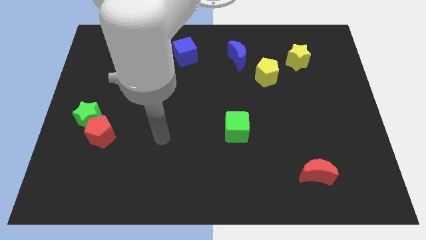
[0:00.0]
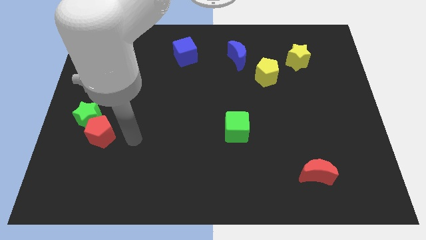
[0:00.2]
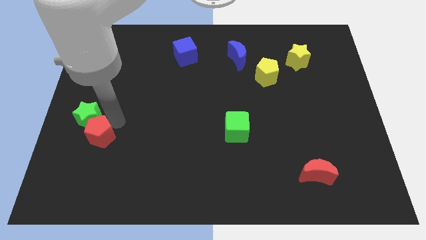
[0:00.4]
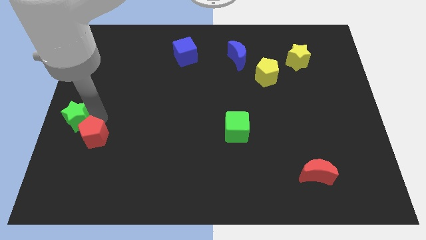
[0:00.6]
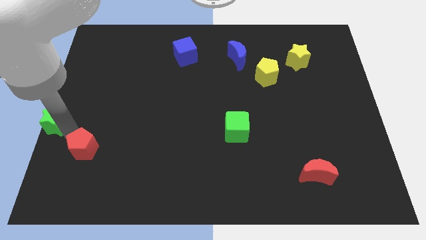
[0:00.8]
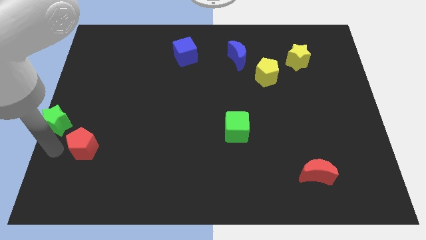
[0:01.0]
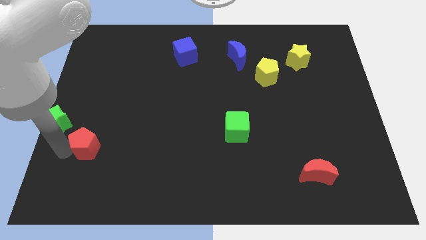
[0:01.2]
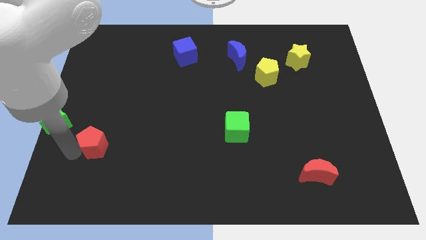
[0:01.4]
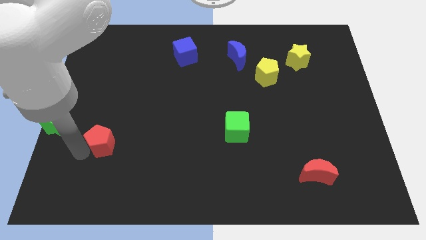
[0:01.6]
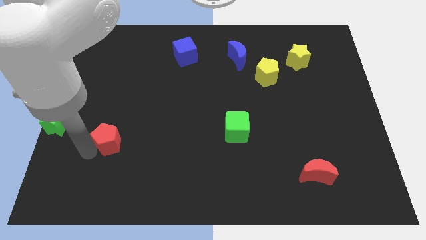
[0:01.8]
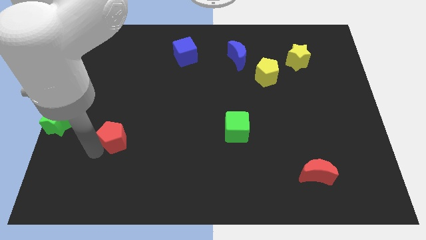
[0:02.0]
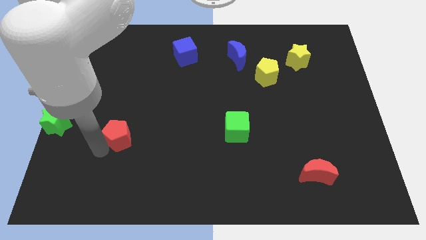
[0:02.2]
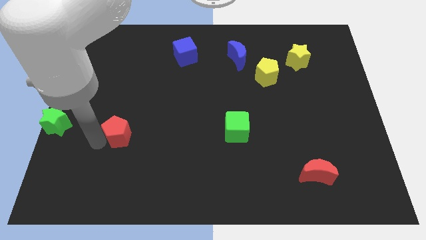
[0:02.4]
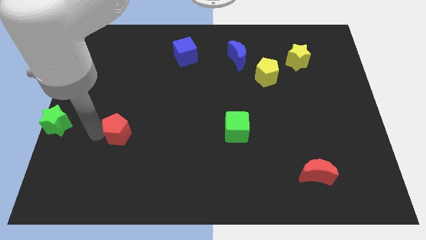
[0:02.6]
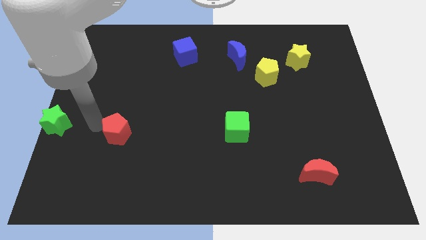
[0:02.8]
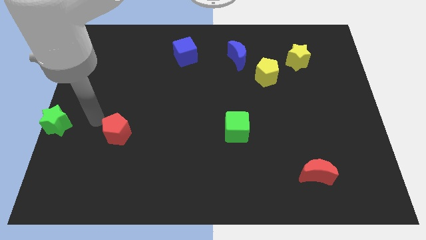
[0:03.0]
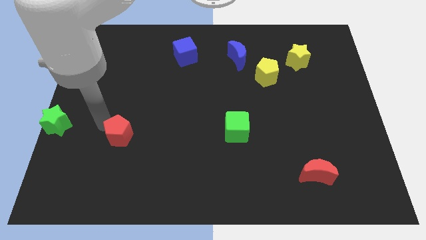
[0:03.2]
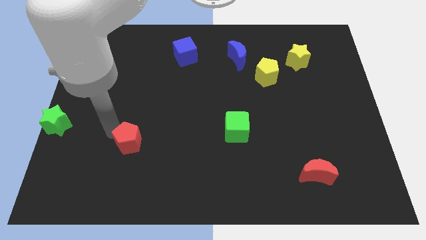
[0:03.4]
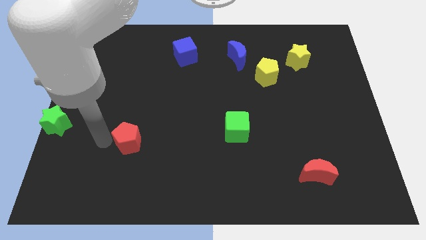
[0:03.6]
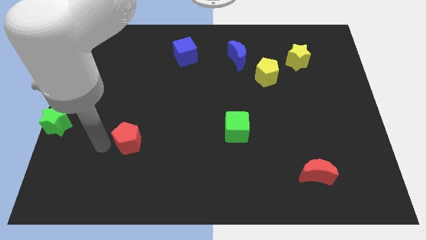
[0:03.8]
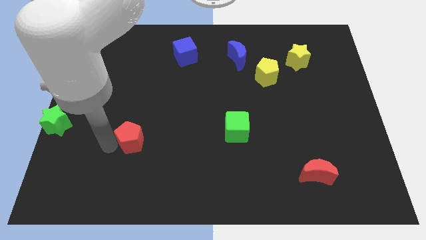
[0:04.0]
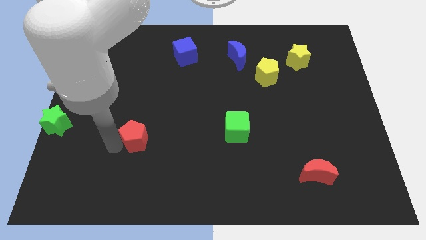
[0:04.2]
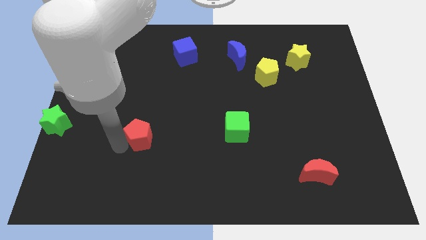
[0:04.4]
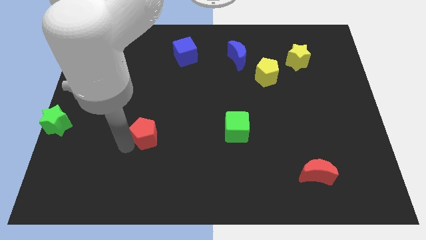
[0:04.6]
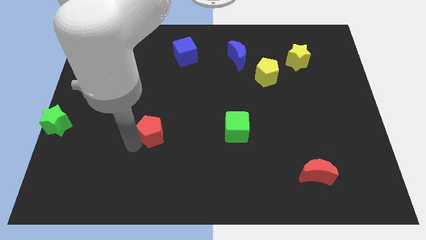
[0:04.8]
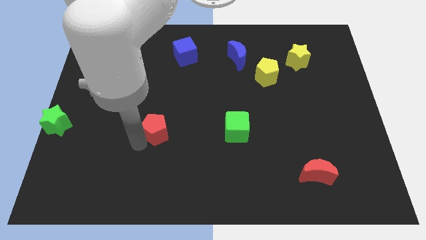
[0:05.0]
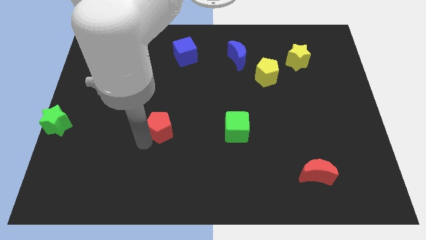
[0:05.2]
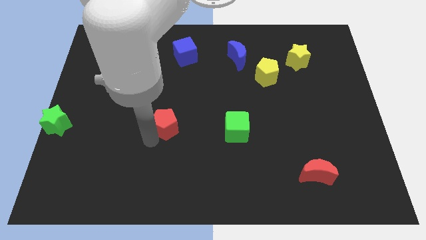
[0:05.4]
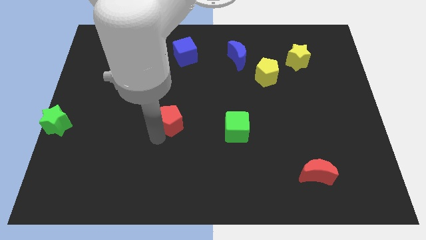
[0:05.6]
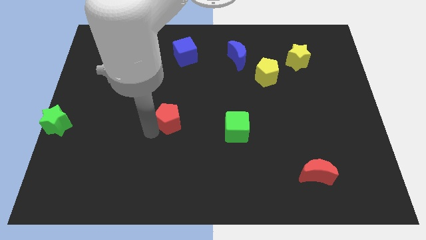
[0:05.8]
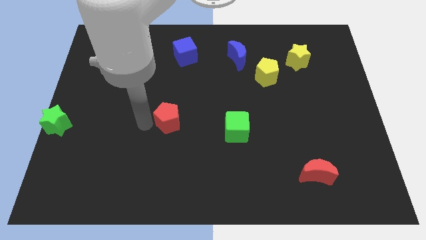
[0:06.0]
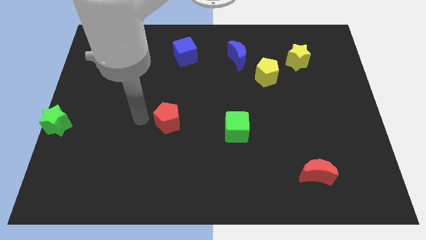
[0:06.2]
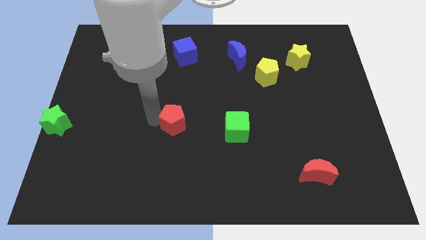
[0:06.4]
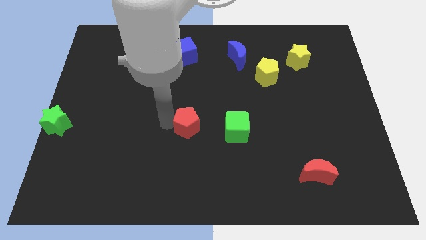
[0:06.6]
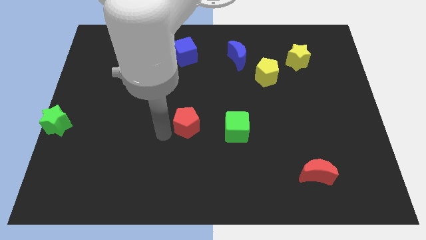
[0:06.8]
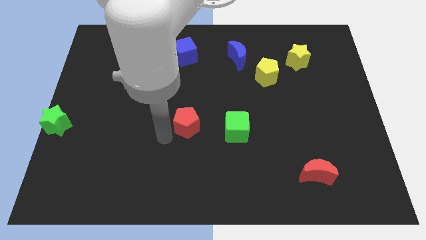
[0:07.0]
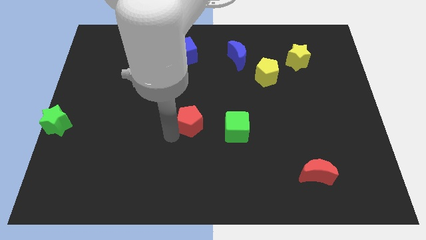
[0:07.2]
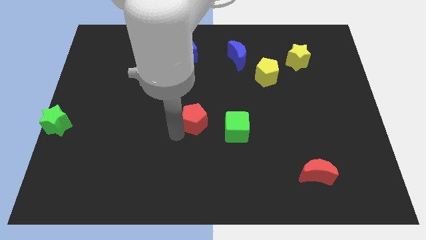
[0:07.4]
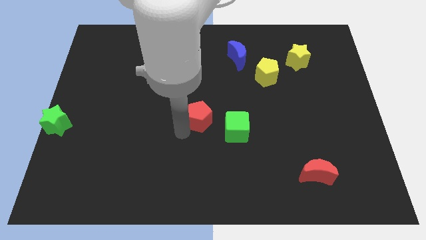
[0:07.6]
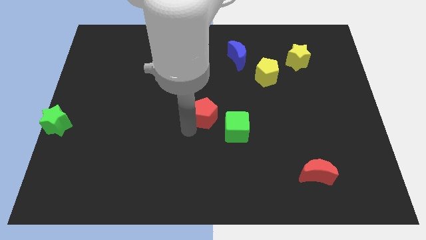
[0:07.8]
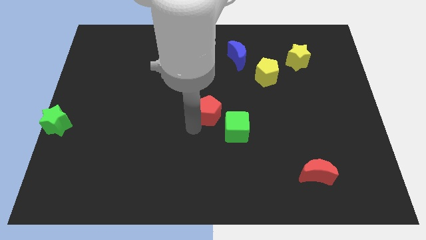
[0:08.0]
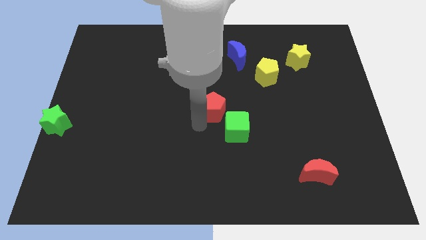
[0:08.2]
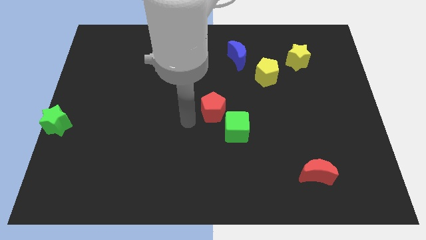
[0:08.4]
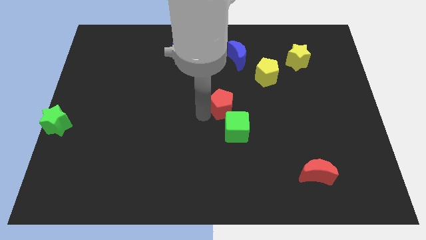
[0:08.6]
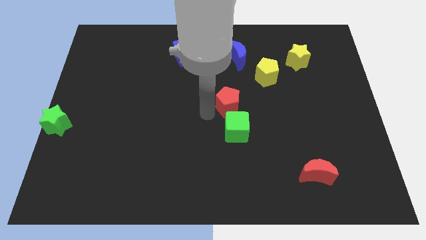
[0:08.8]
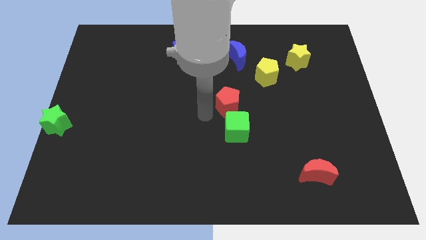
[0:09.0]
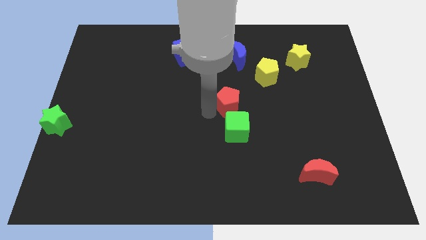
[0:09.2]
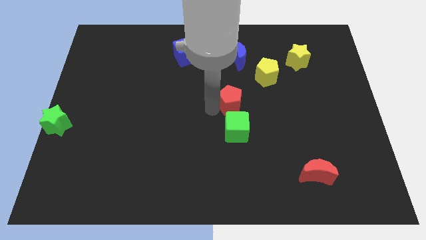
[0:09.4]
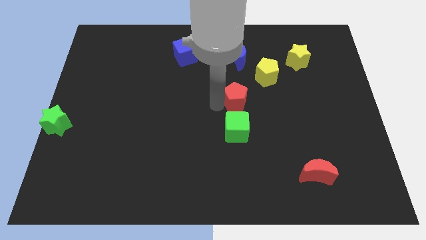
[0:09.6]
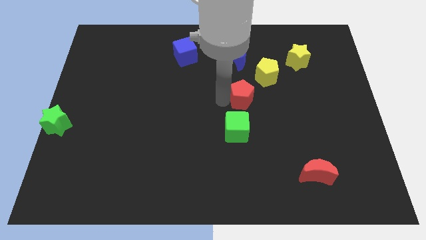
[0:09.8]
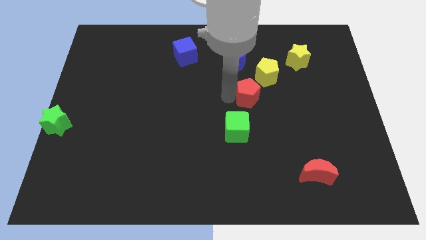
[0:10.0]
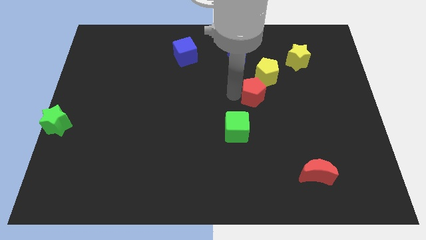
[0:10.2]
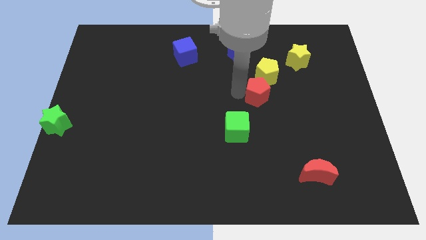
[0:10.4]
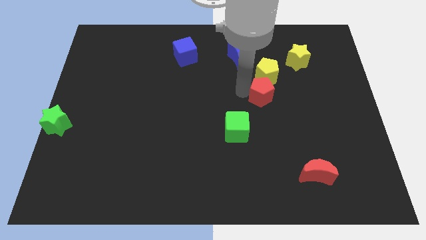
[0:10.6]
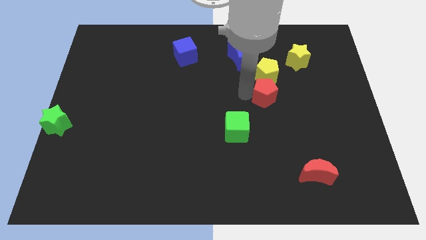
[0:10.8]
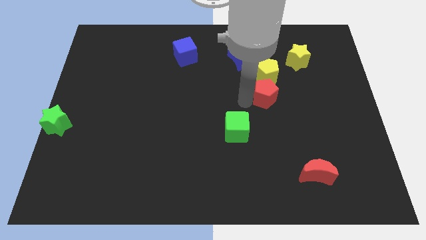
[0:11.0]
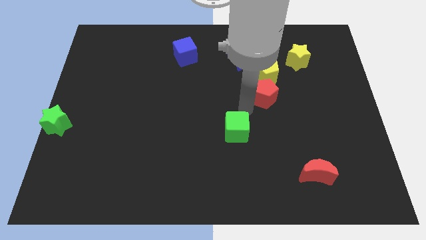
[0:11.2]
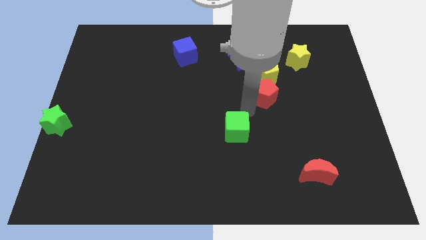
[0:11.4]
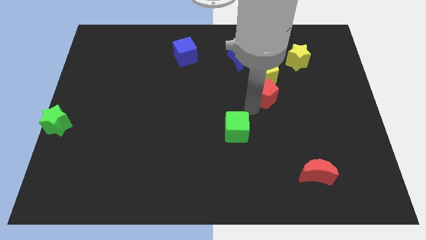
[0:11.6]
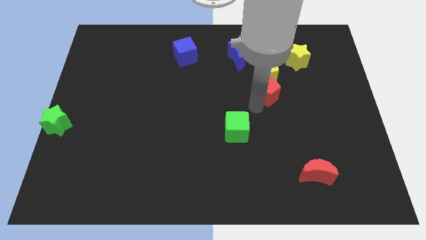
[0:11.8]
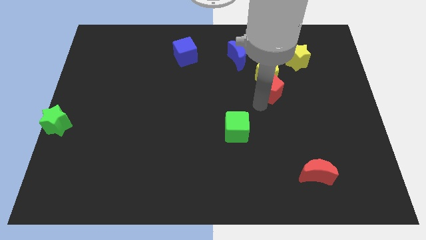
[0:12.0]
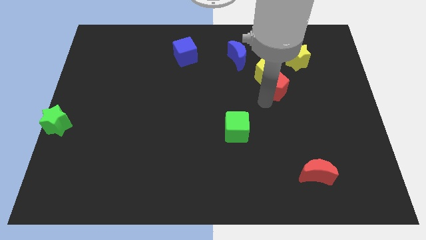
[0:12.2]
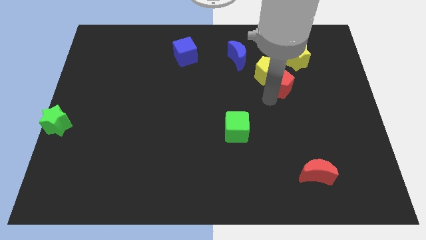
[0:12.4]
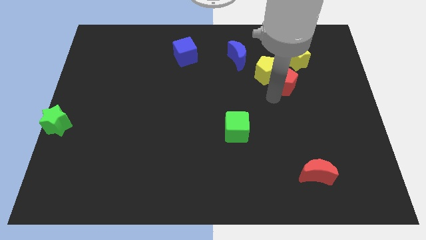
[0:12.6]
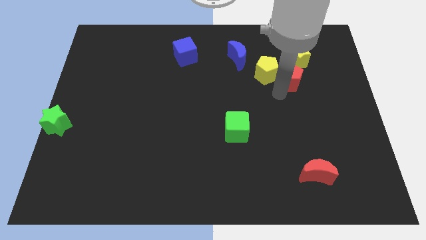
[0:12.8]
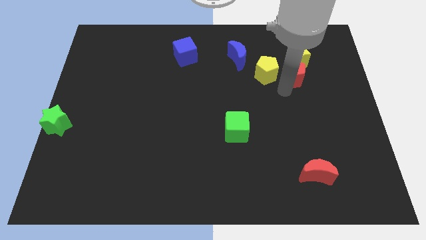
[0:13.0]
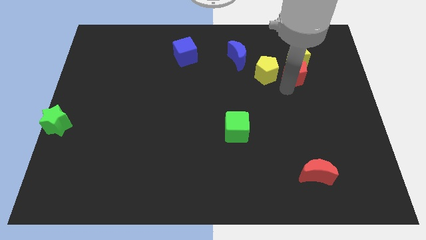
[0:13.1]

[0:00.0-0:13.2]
put the red pentagon next to the yellow star

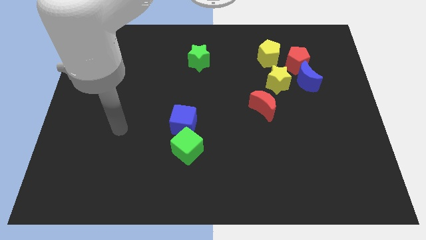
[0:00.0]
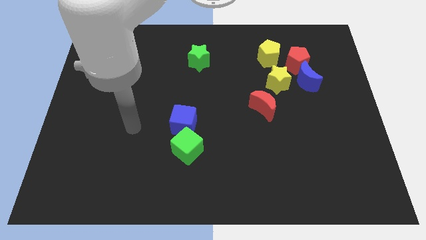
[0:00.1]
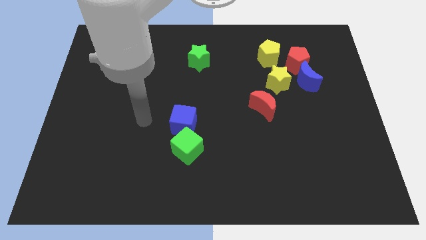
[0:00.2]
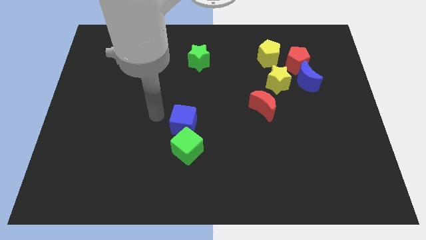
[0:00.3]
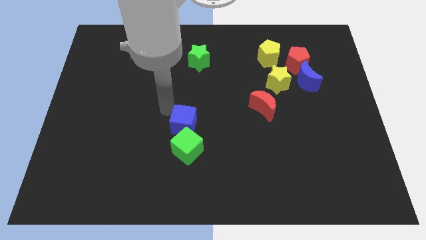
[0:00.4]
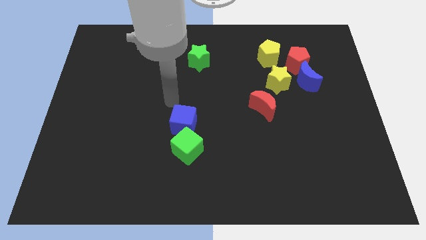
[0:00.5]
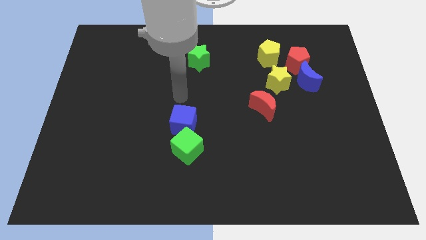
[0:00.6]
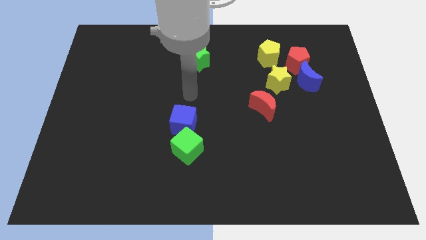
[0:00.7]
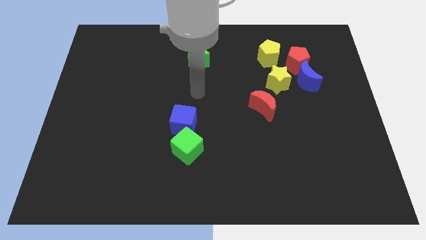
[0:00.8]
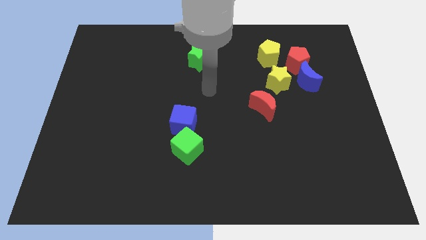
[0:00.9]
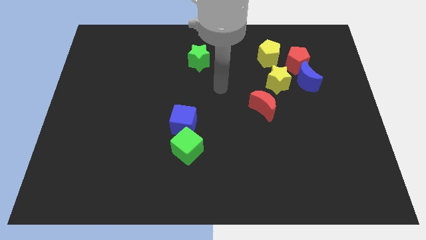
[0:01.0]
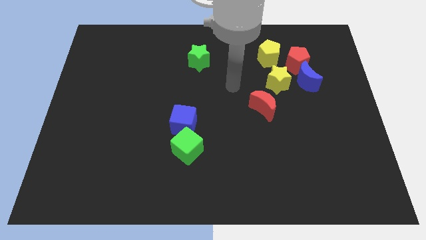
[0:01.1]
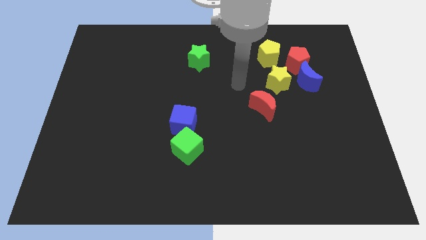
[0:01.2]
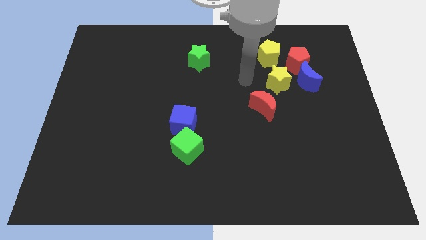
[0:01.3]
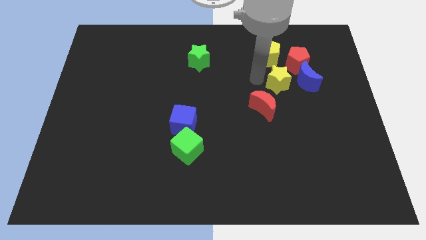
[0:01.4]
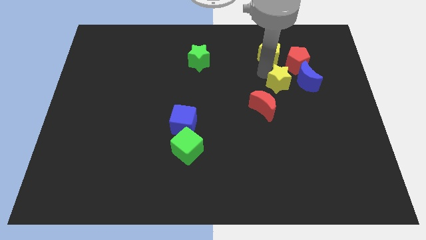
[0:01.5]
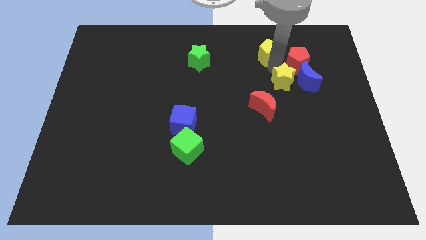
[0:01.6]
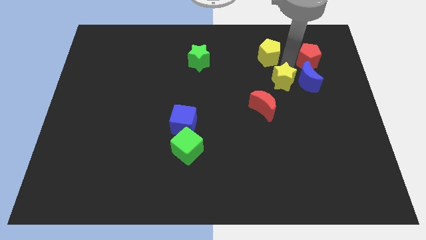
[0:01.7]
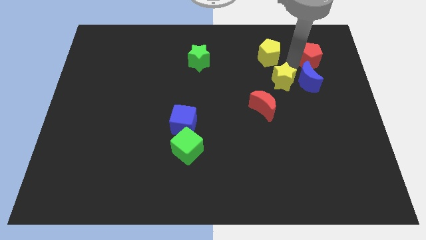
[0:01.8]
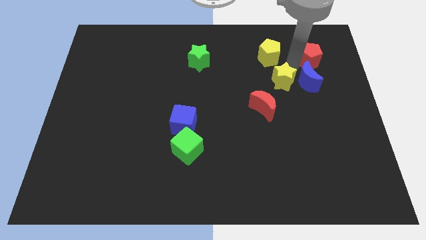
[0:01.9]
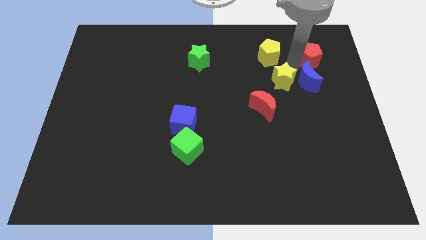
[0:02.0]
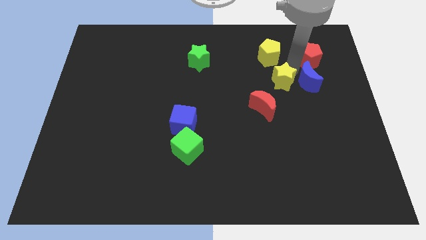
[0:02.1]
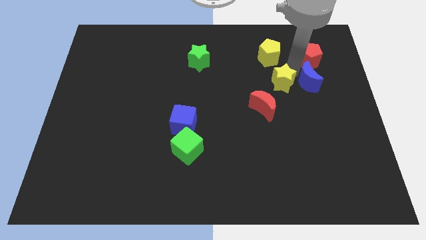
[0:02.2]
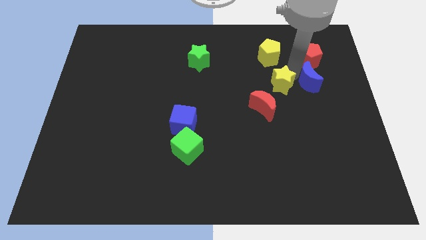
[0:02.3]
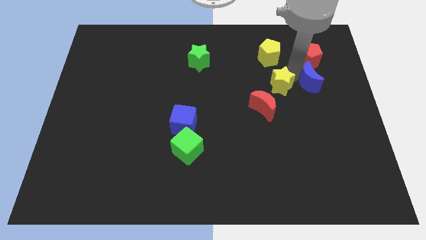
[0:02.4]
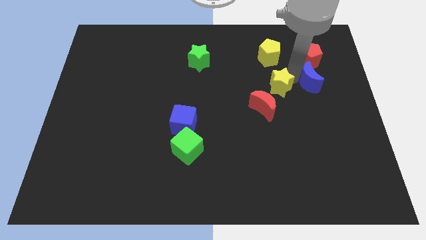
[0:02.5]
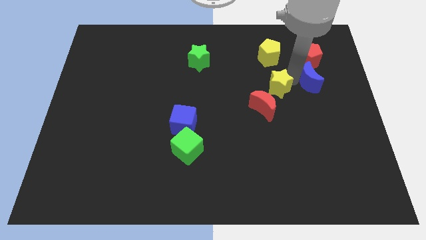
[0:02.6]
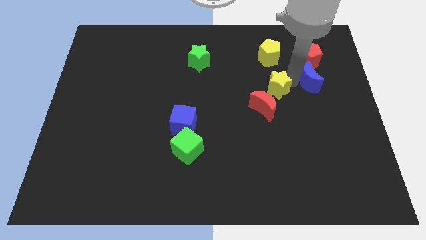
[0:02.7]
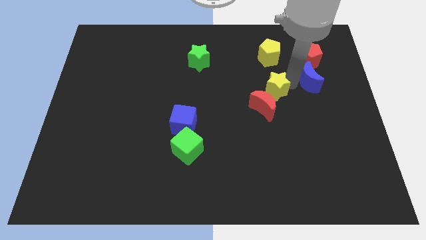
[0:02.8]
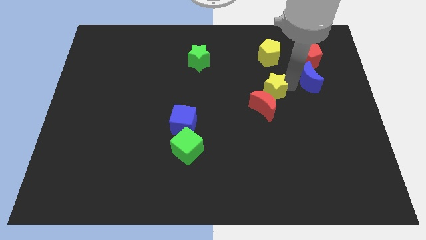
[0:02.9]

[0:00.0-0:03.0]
push the yellow star towards the red moon
